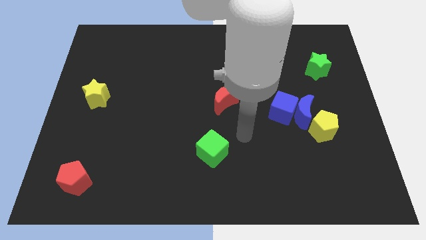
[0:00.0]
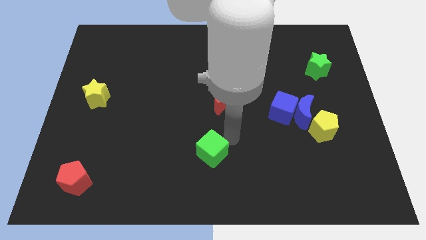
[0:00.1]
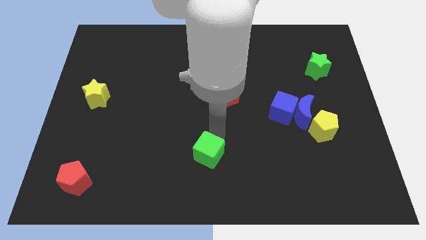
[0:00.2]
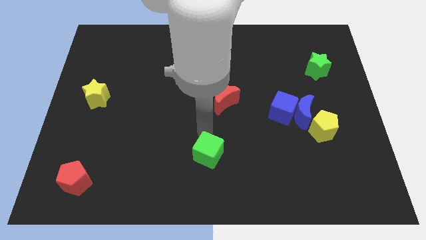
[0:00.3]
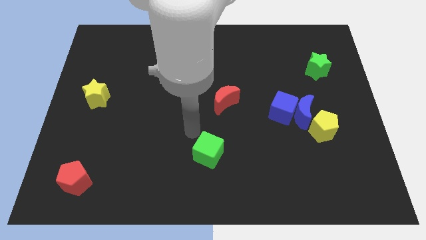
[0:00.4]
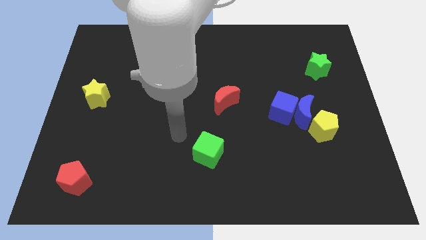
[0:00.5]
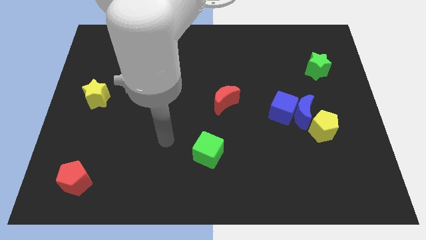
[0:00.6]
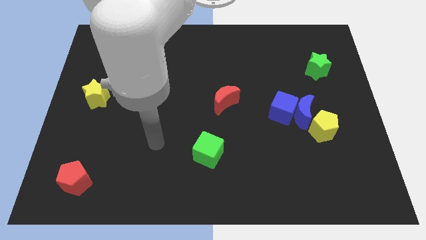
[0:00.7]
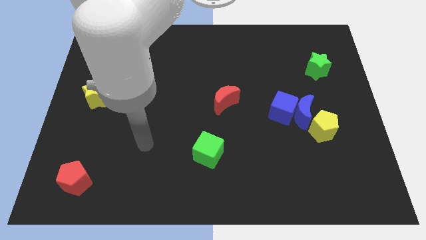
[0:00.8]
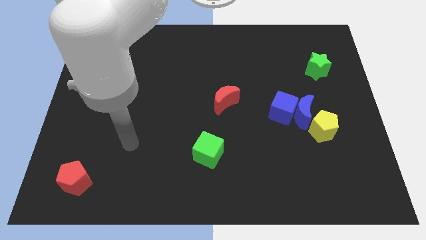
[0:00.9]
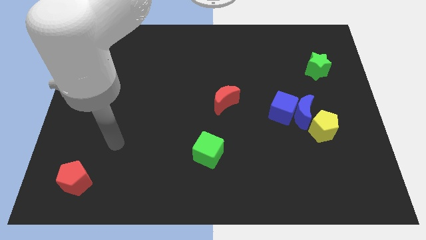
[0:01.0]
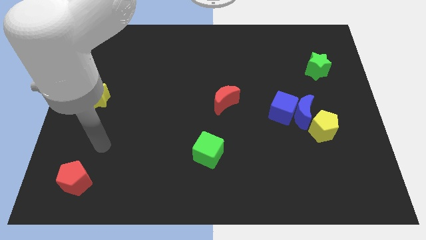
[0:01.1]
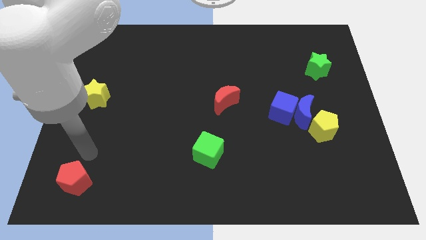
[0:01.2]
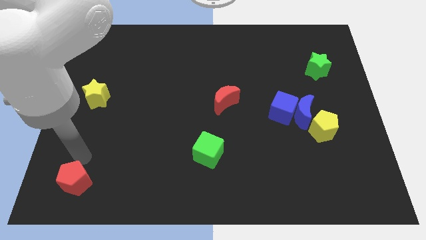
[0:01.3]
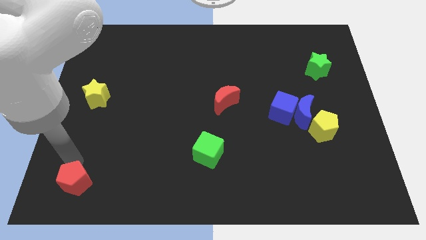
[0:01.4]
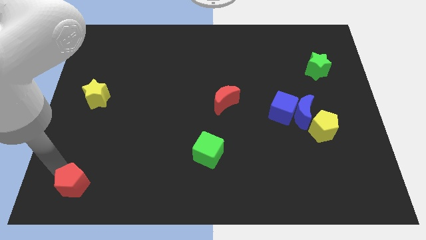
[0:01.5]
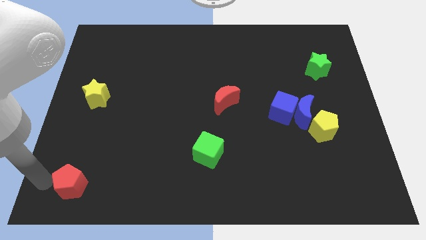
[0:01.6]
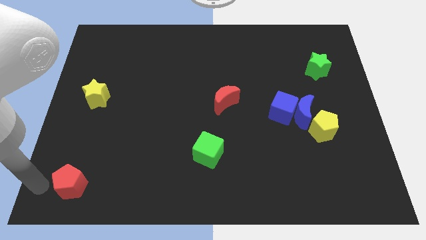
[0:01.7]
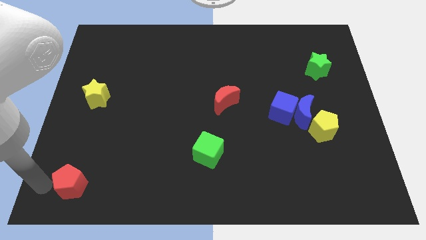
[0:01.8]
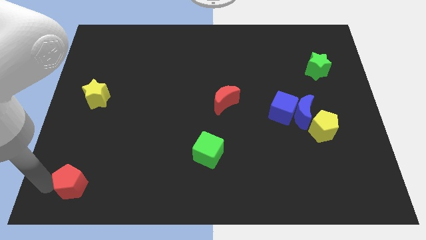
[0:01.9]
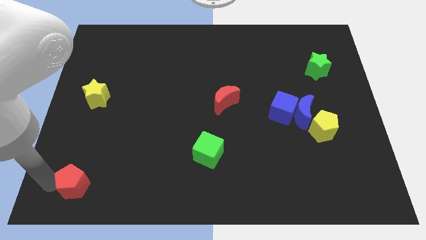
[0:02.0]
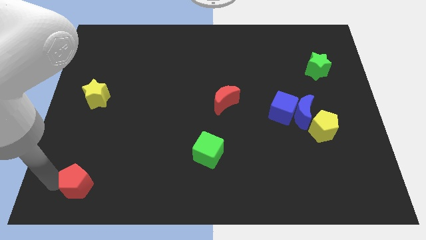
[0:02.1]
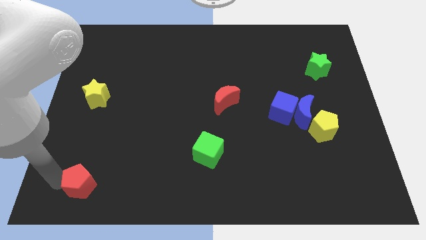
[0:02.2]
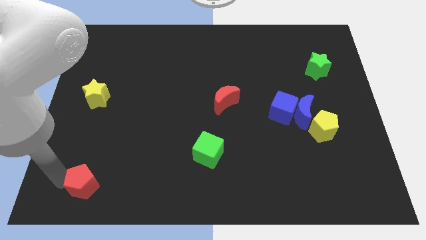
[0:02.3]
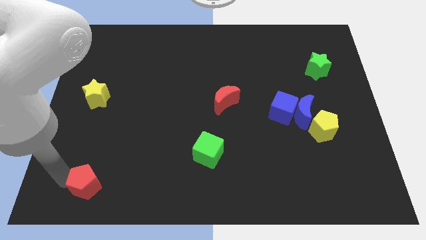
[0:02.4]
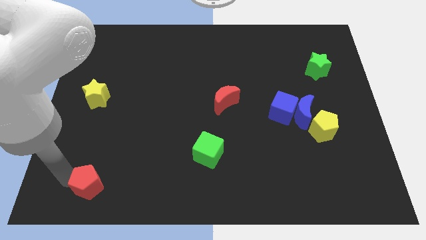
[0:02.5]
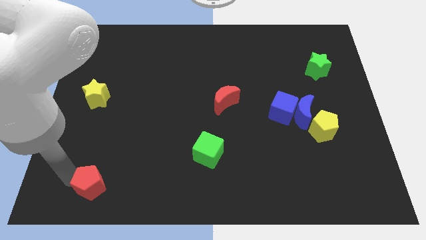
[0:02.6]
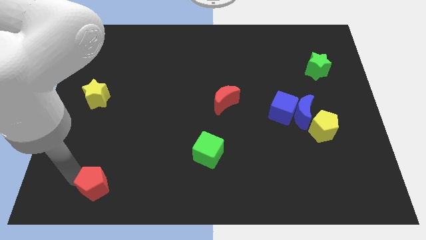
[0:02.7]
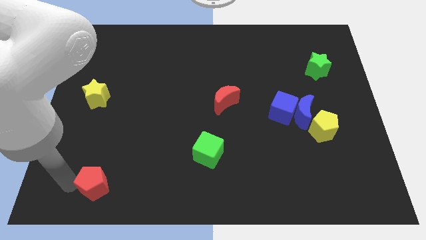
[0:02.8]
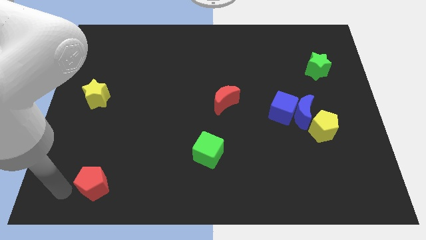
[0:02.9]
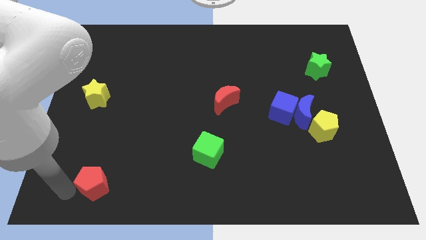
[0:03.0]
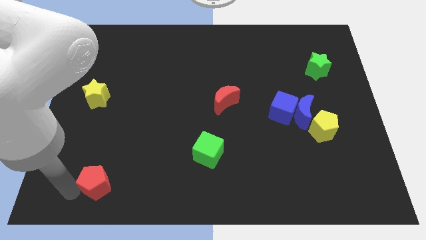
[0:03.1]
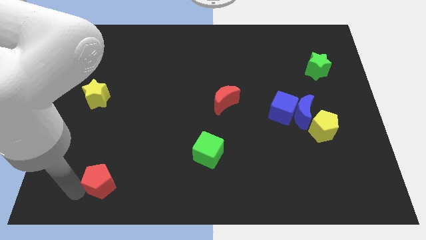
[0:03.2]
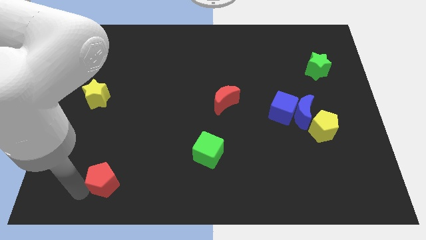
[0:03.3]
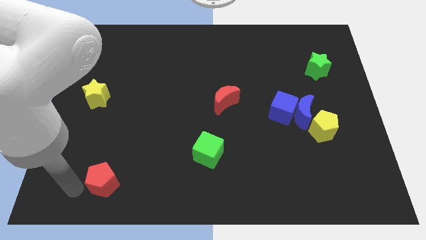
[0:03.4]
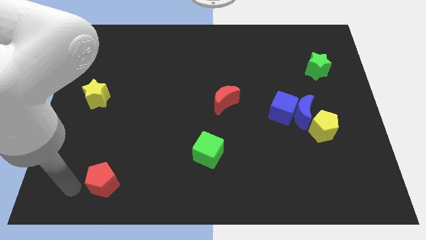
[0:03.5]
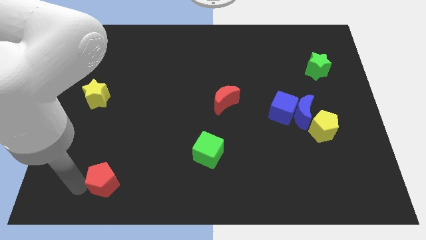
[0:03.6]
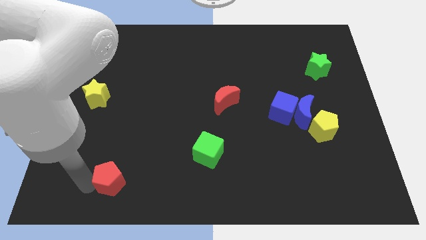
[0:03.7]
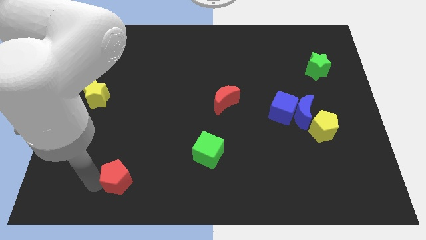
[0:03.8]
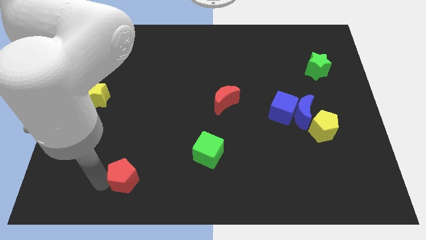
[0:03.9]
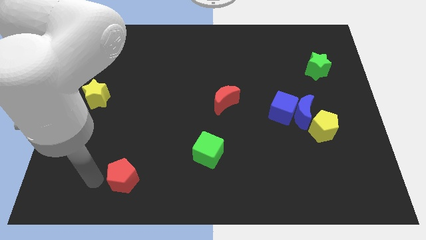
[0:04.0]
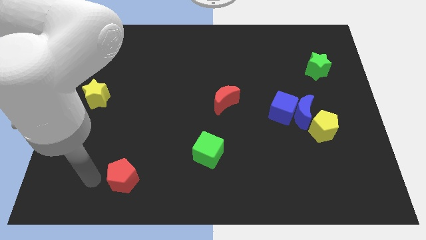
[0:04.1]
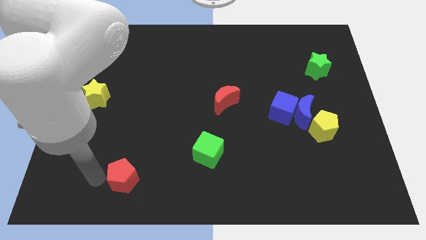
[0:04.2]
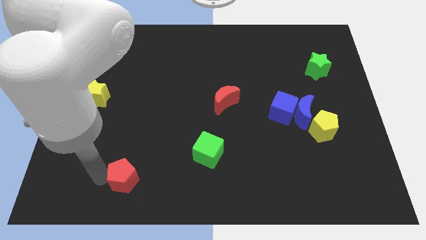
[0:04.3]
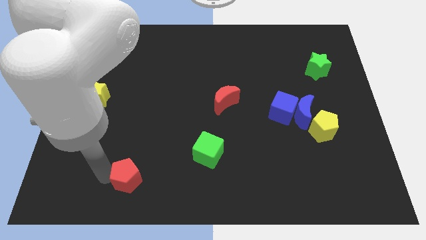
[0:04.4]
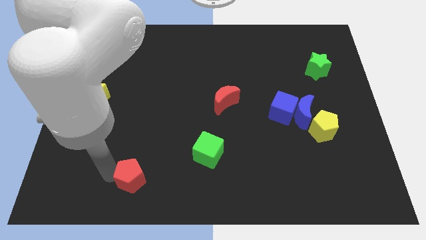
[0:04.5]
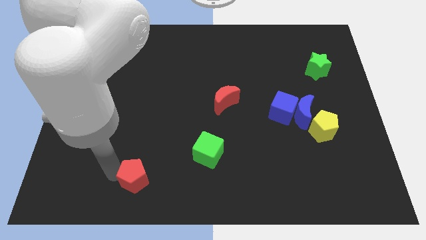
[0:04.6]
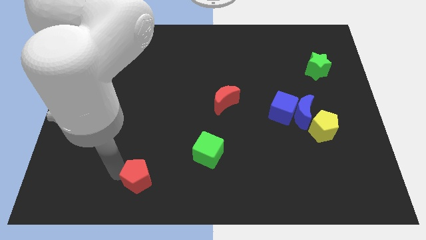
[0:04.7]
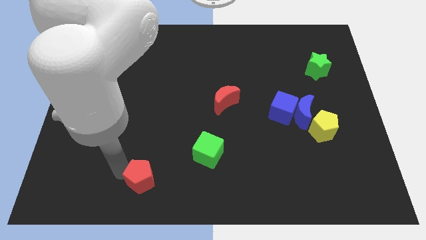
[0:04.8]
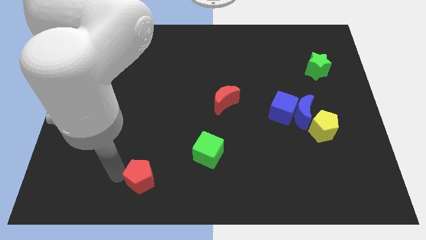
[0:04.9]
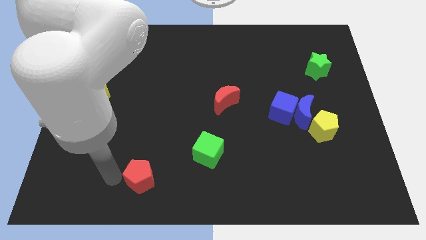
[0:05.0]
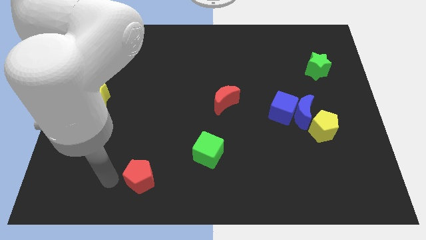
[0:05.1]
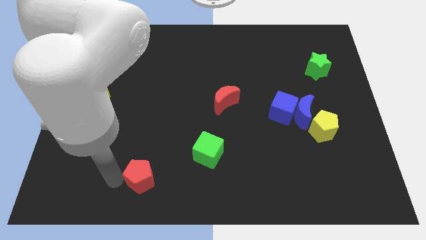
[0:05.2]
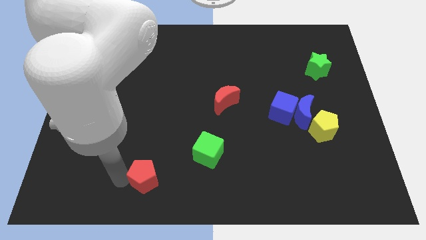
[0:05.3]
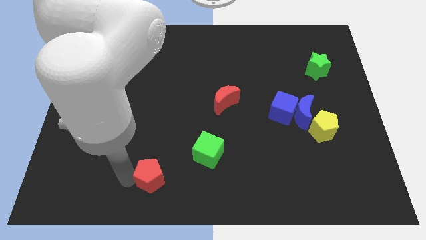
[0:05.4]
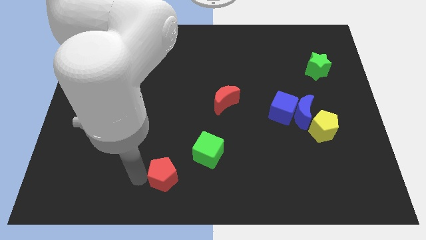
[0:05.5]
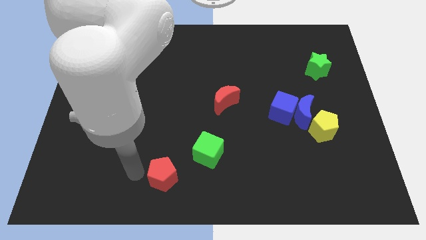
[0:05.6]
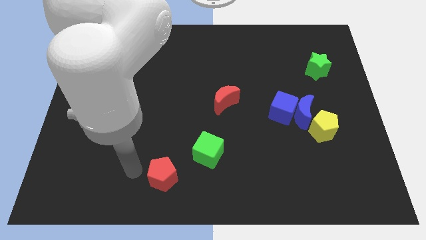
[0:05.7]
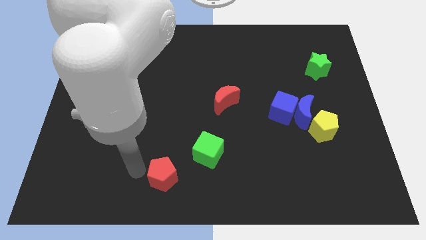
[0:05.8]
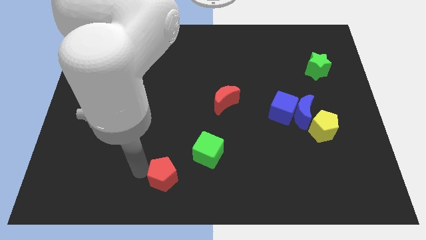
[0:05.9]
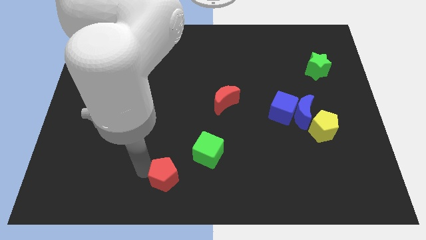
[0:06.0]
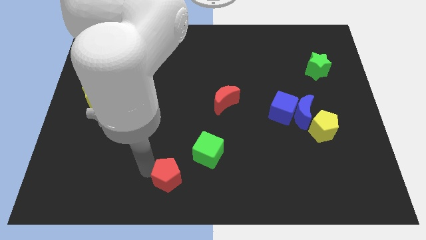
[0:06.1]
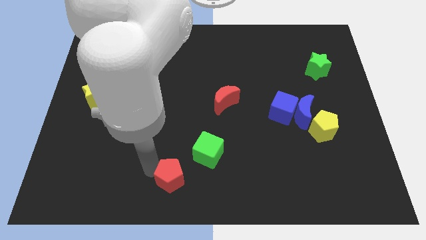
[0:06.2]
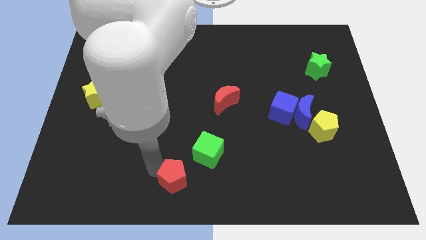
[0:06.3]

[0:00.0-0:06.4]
move the red pentagon right

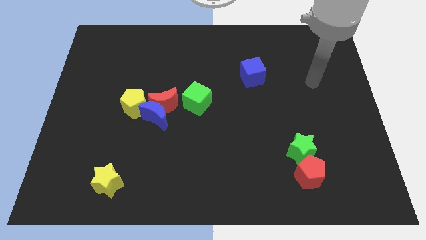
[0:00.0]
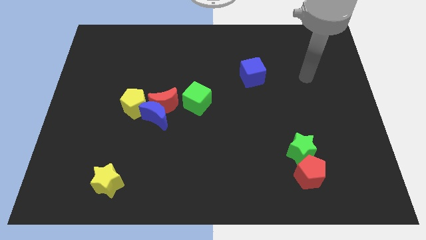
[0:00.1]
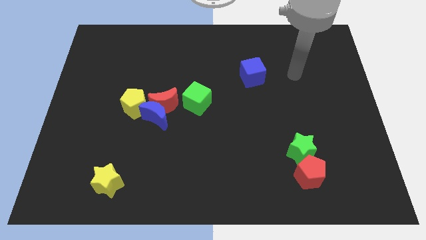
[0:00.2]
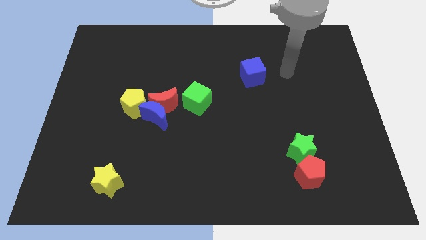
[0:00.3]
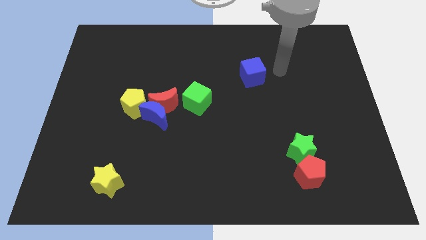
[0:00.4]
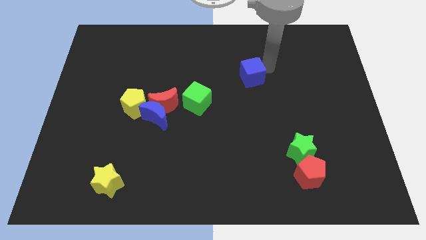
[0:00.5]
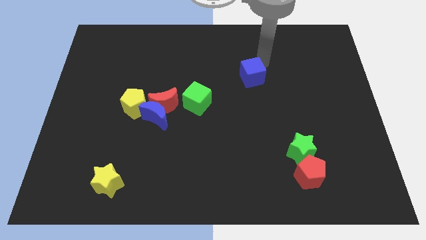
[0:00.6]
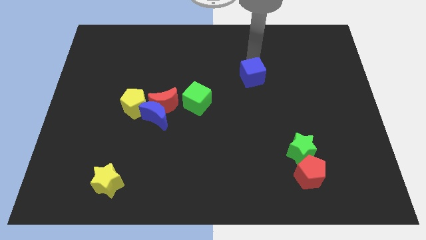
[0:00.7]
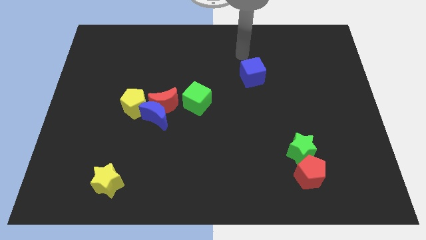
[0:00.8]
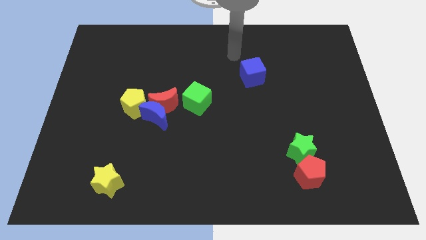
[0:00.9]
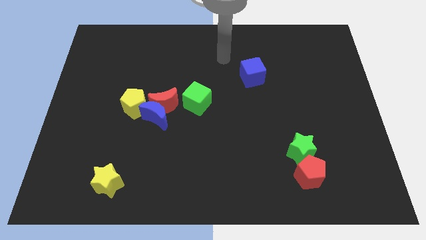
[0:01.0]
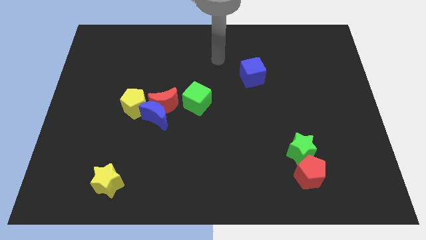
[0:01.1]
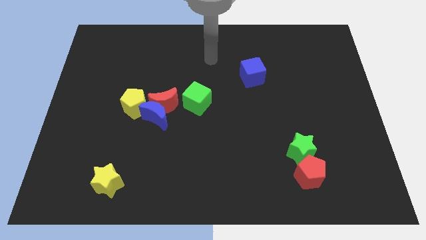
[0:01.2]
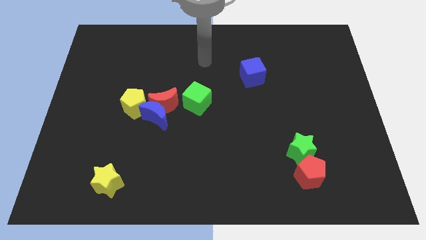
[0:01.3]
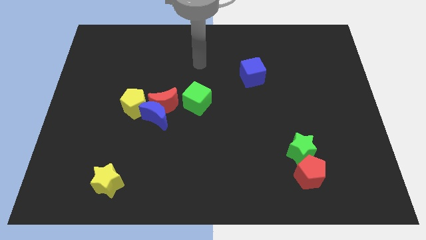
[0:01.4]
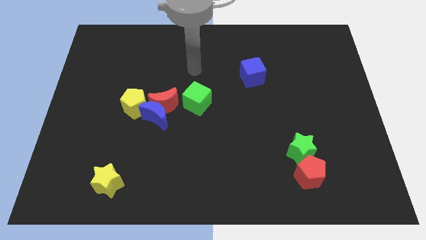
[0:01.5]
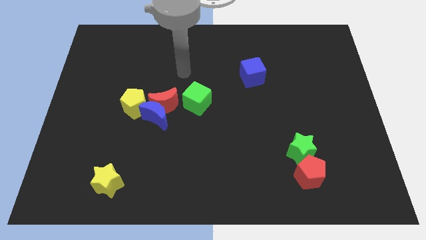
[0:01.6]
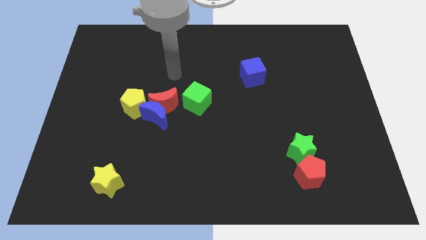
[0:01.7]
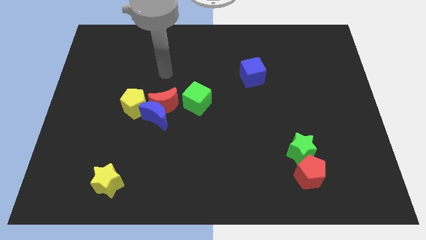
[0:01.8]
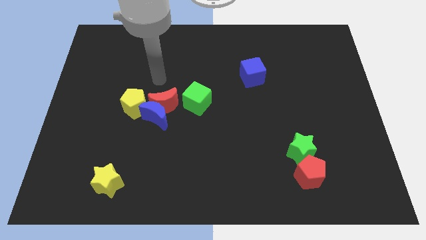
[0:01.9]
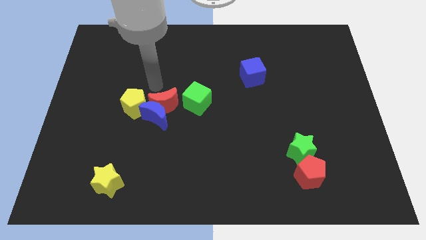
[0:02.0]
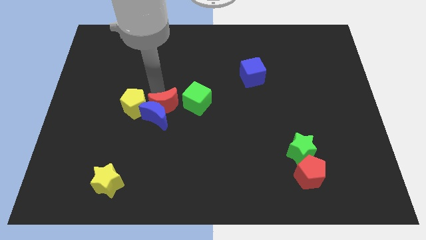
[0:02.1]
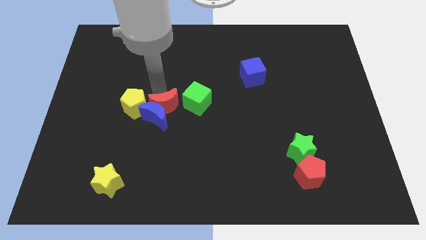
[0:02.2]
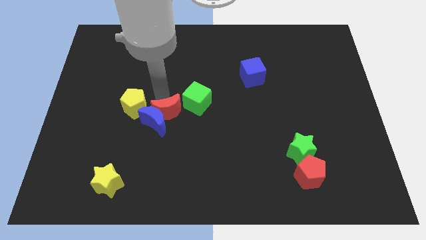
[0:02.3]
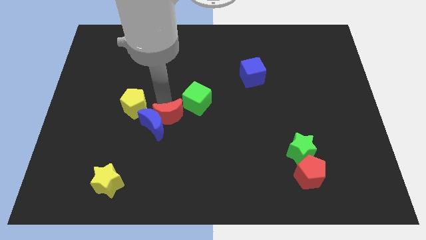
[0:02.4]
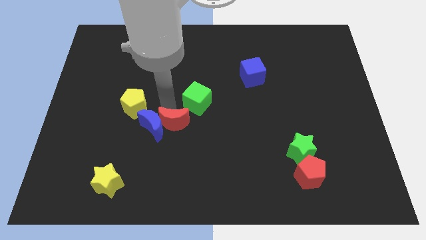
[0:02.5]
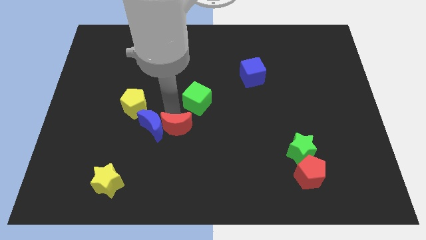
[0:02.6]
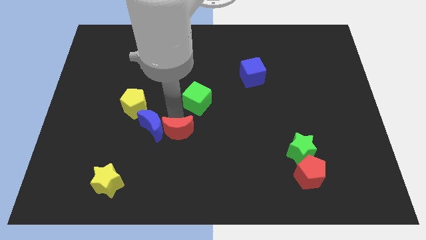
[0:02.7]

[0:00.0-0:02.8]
slightly slide the red moon downwards
